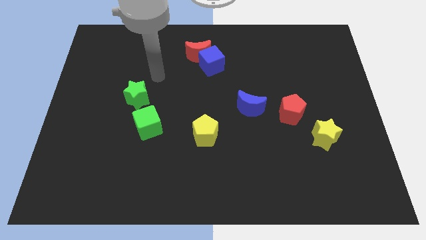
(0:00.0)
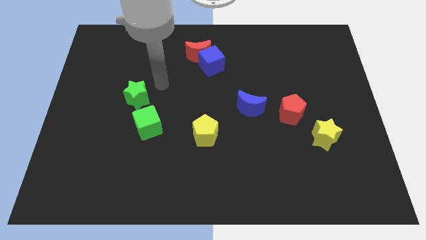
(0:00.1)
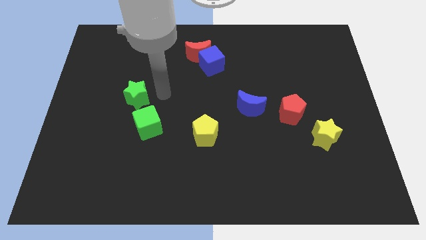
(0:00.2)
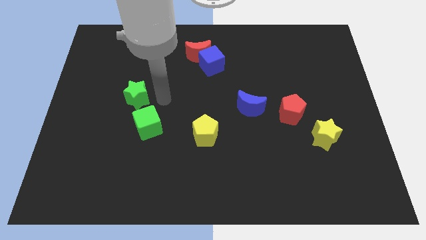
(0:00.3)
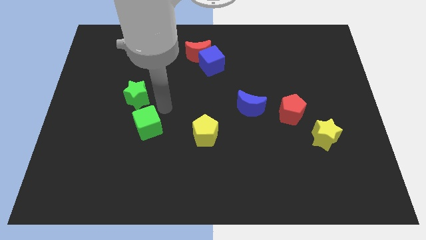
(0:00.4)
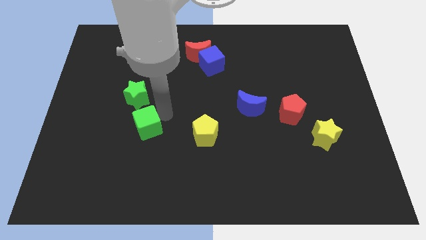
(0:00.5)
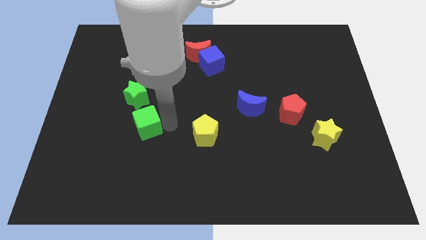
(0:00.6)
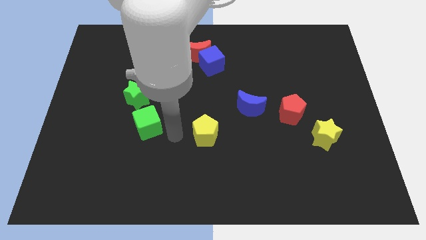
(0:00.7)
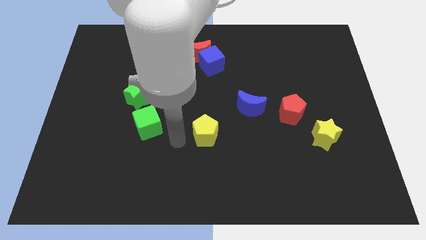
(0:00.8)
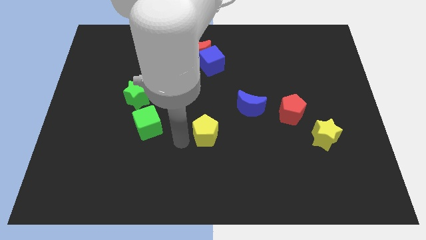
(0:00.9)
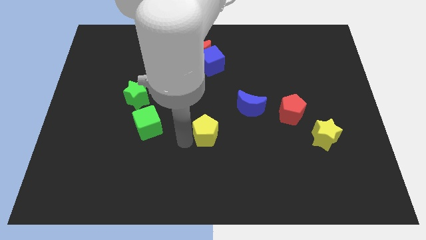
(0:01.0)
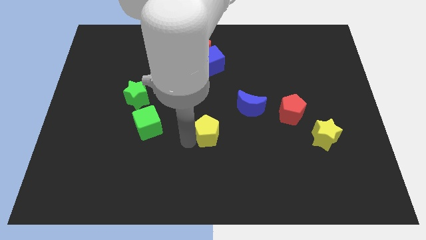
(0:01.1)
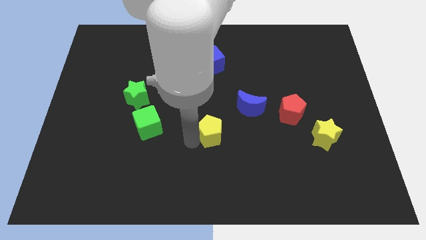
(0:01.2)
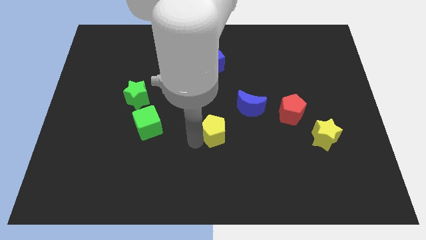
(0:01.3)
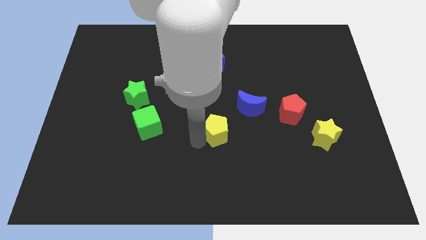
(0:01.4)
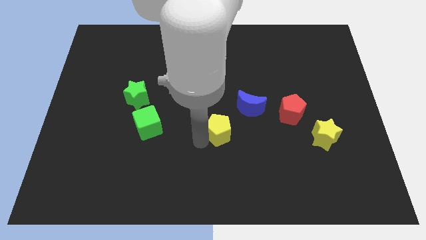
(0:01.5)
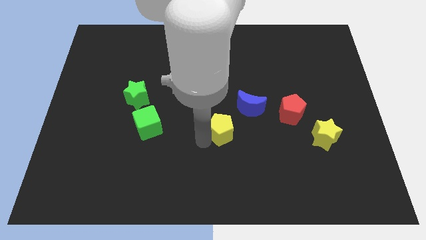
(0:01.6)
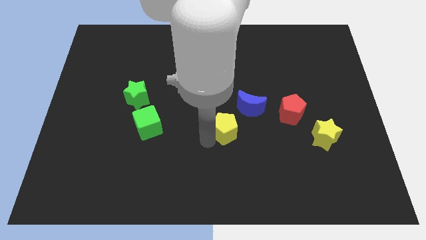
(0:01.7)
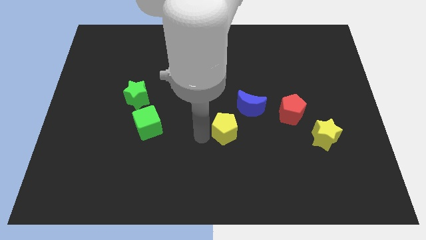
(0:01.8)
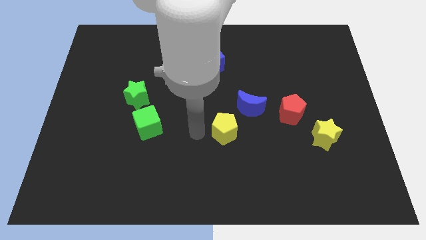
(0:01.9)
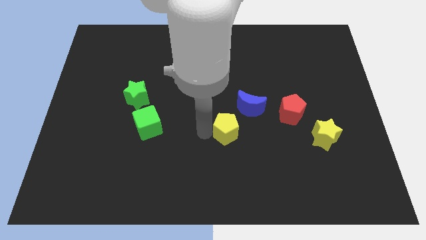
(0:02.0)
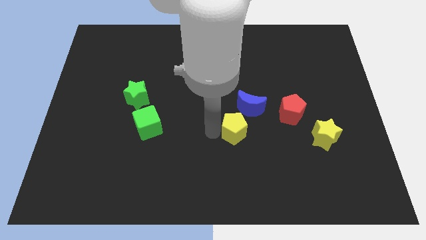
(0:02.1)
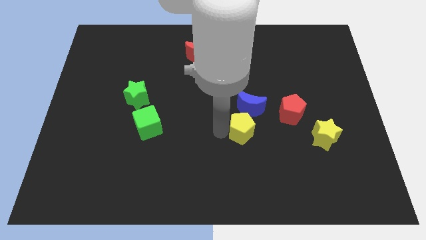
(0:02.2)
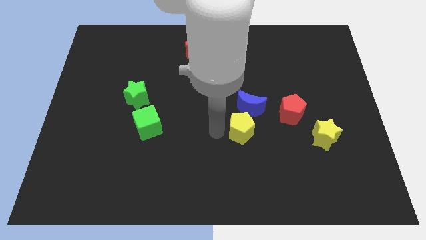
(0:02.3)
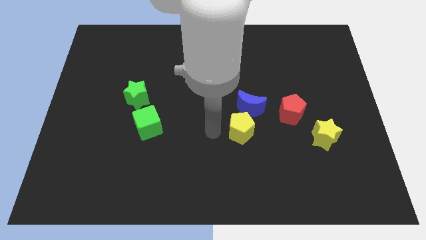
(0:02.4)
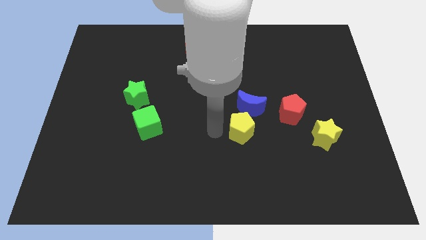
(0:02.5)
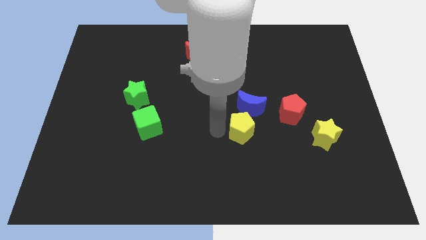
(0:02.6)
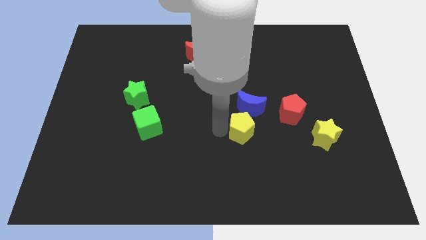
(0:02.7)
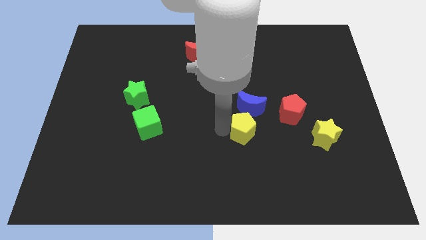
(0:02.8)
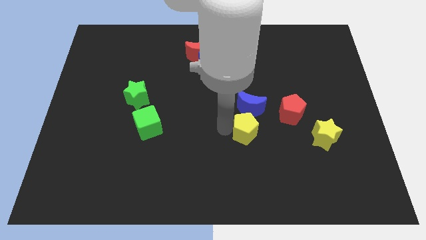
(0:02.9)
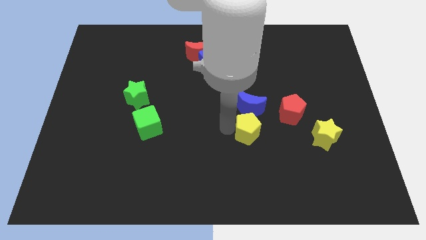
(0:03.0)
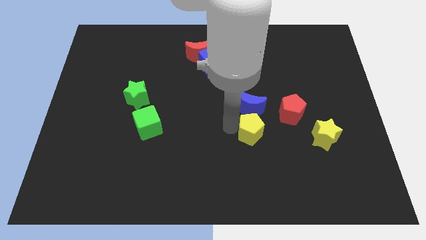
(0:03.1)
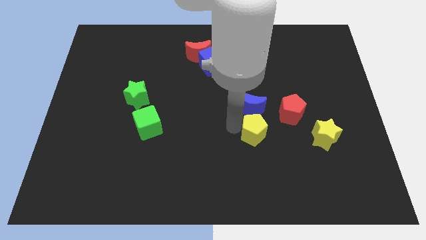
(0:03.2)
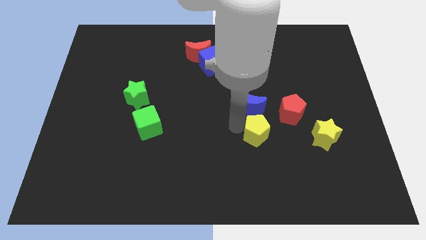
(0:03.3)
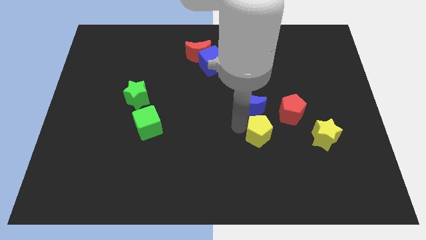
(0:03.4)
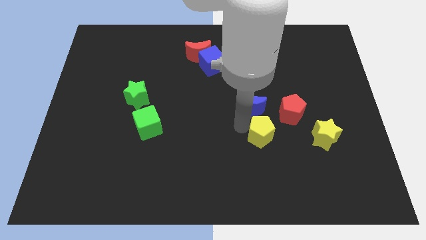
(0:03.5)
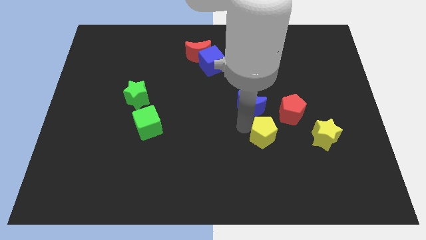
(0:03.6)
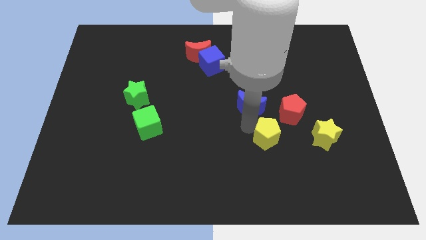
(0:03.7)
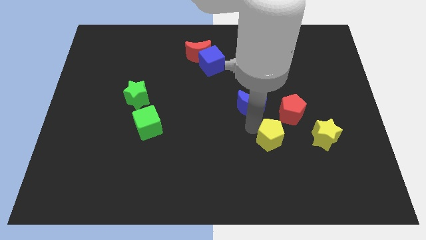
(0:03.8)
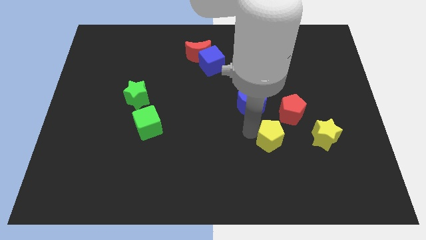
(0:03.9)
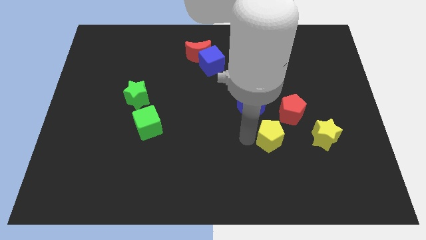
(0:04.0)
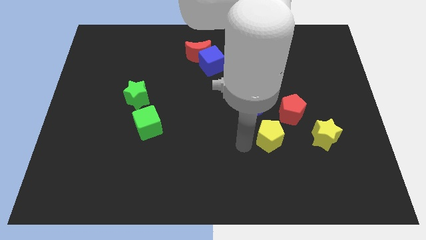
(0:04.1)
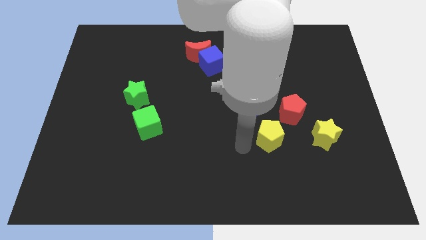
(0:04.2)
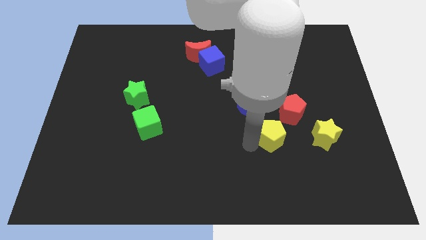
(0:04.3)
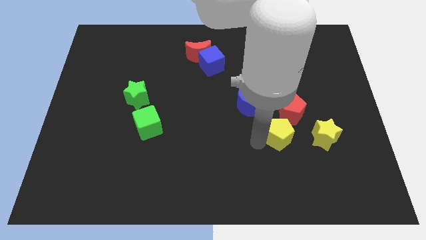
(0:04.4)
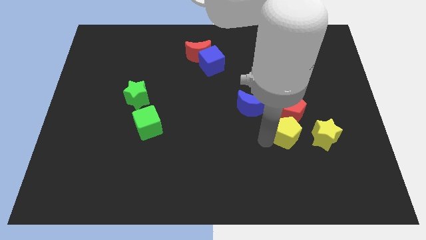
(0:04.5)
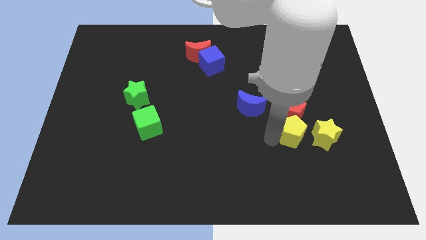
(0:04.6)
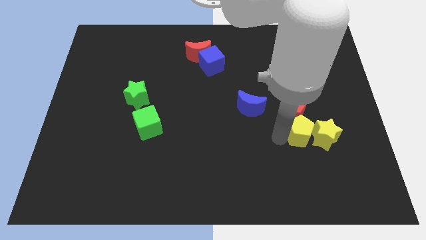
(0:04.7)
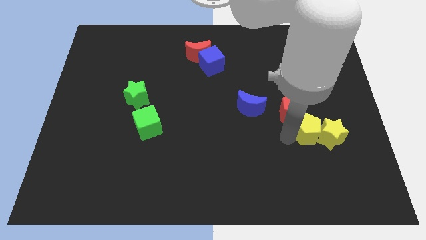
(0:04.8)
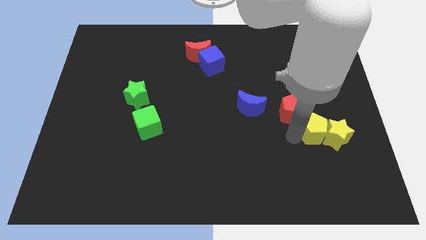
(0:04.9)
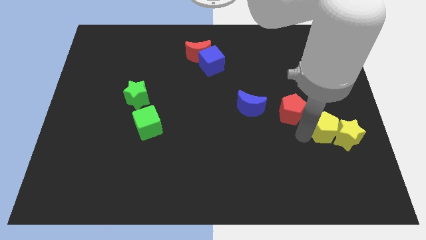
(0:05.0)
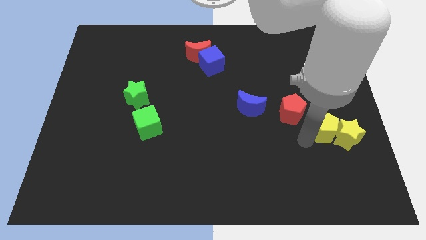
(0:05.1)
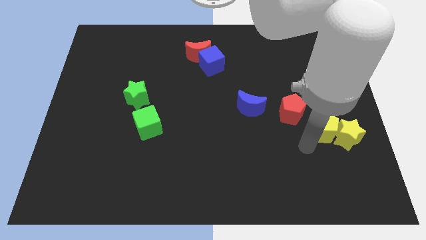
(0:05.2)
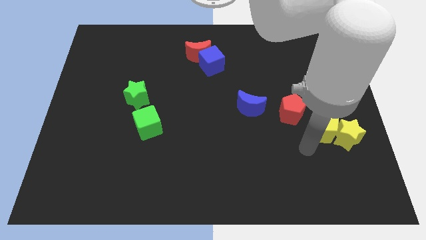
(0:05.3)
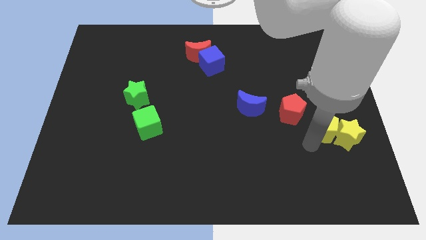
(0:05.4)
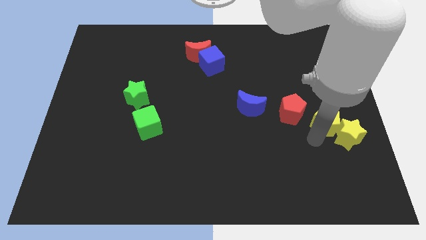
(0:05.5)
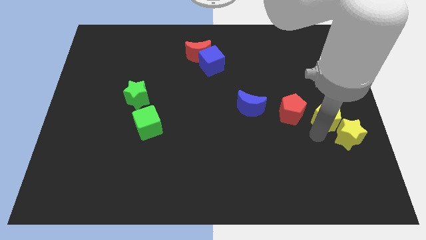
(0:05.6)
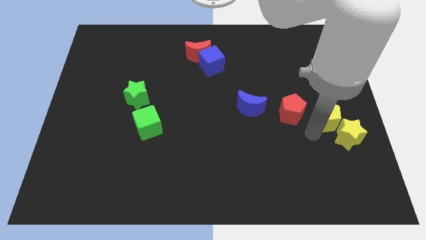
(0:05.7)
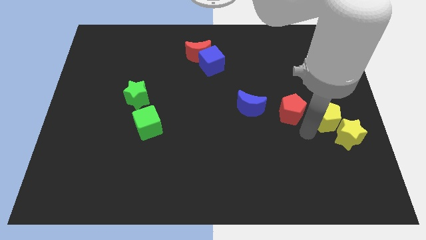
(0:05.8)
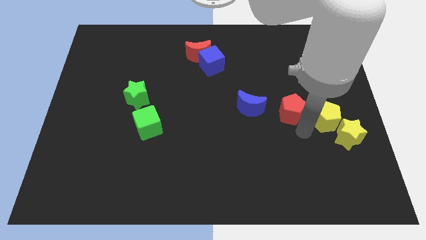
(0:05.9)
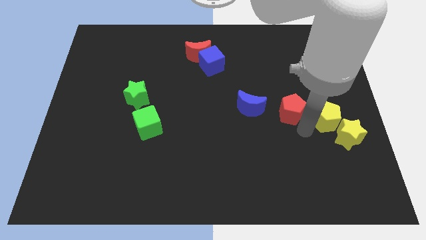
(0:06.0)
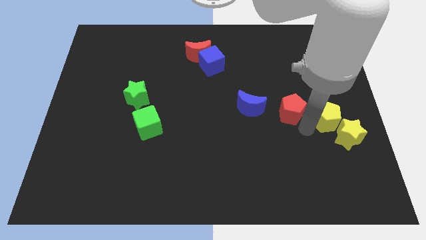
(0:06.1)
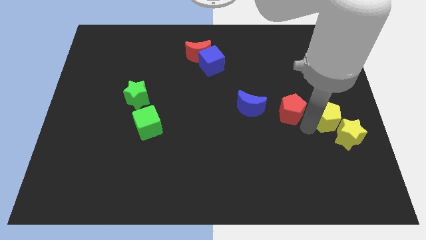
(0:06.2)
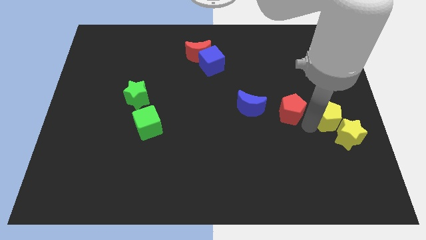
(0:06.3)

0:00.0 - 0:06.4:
push the yellow pentagon to the right side
